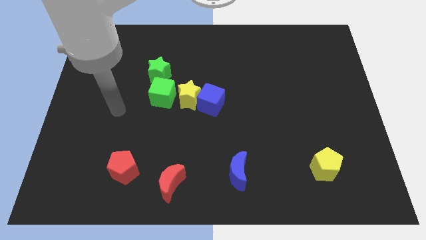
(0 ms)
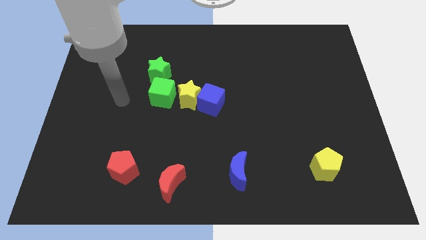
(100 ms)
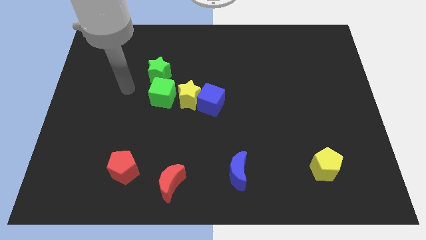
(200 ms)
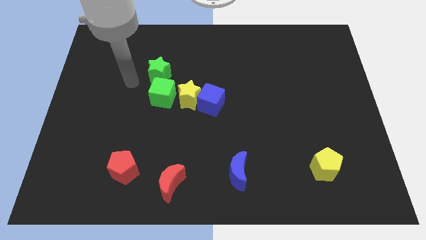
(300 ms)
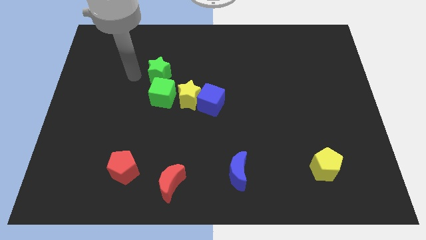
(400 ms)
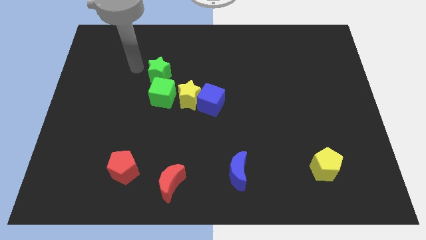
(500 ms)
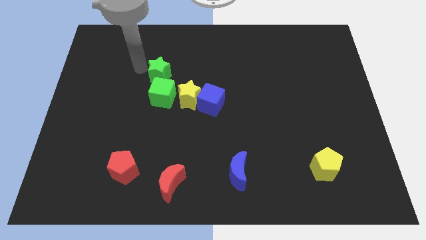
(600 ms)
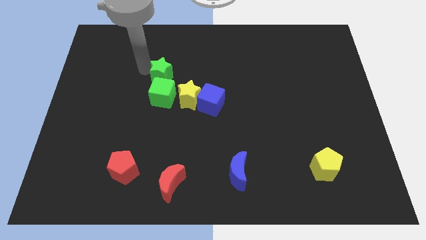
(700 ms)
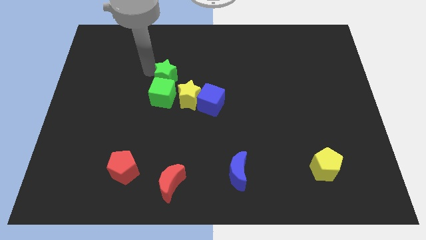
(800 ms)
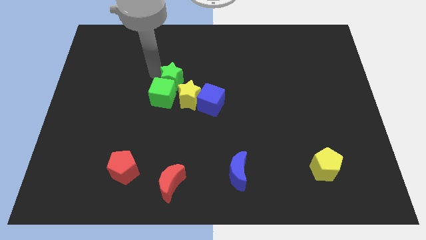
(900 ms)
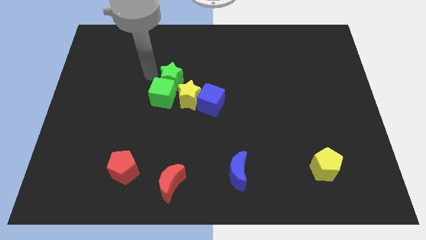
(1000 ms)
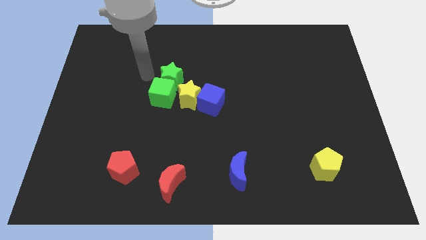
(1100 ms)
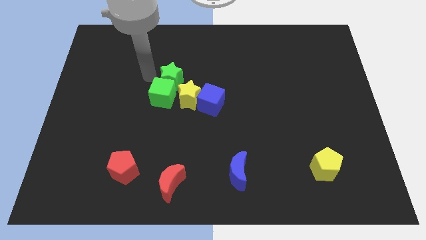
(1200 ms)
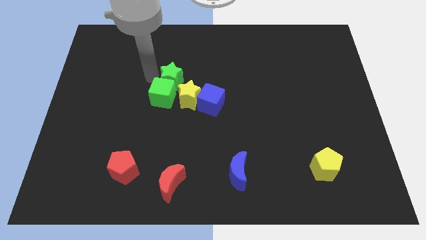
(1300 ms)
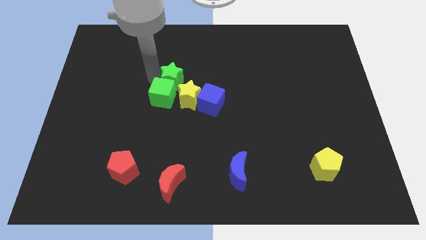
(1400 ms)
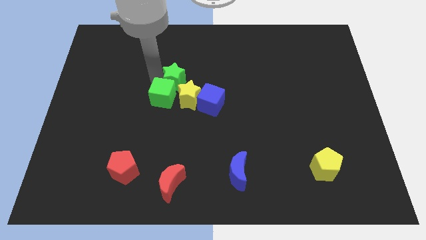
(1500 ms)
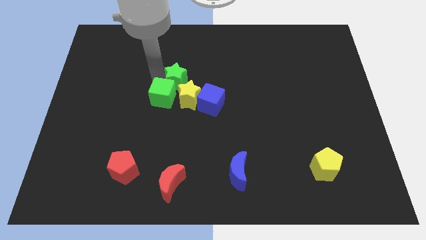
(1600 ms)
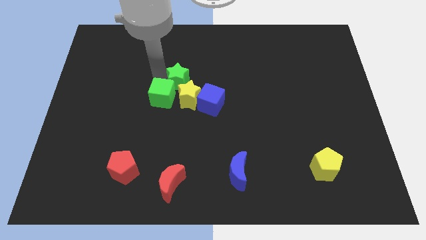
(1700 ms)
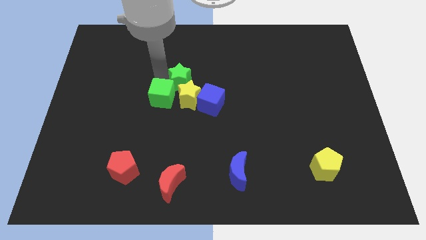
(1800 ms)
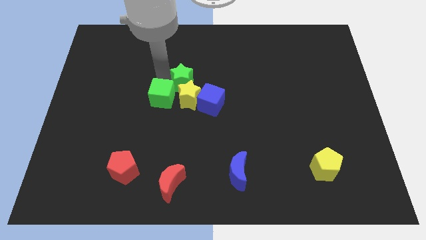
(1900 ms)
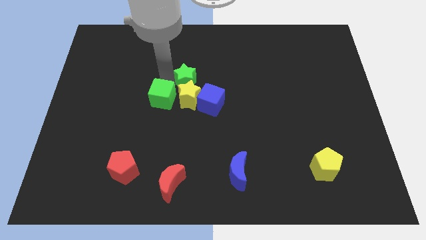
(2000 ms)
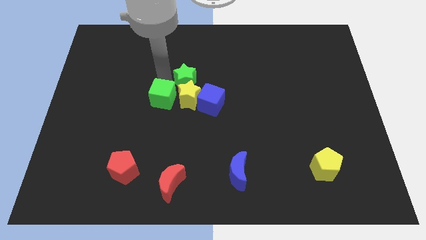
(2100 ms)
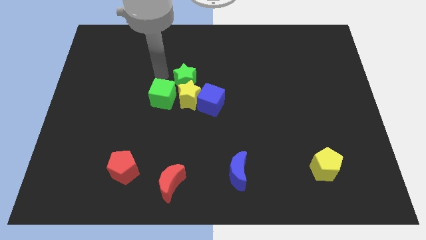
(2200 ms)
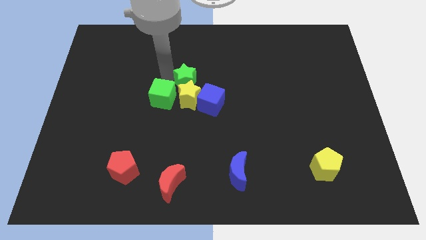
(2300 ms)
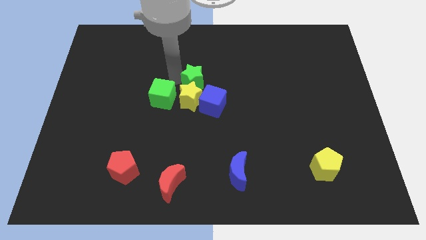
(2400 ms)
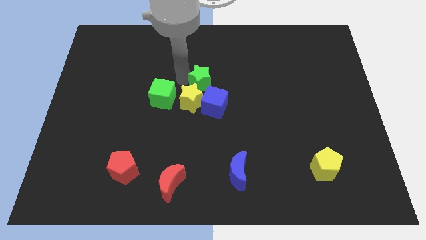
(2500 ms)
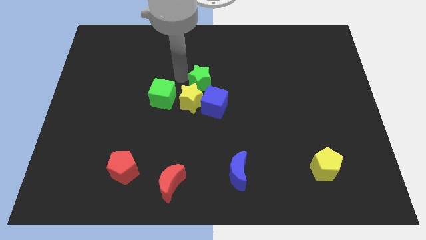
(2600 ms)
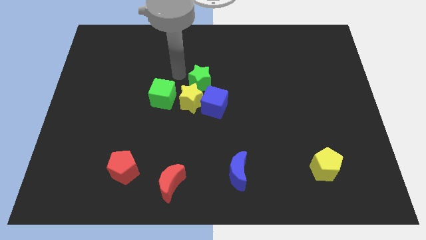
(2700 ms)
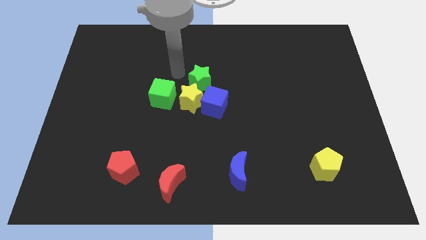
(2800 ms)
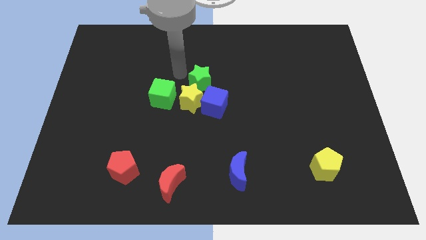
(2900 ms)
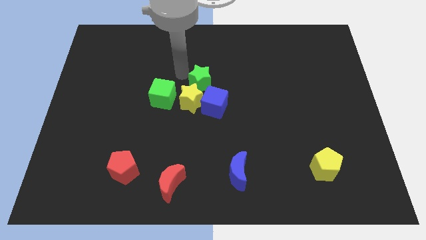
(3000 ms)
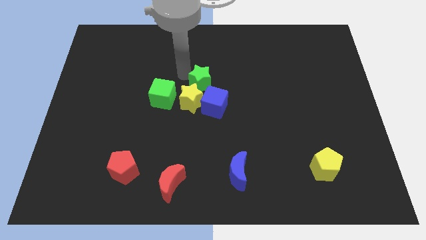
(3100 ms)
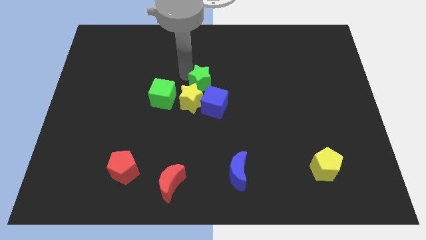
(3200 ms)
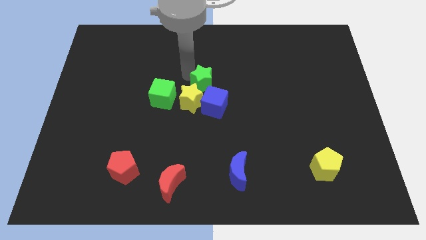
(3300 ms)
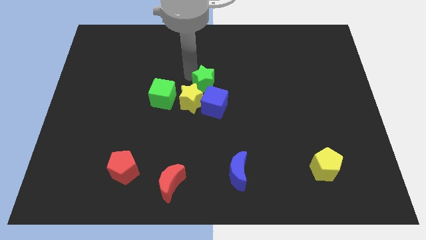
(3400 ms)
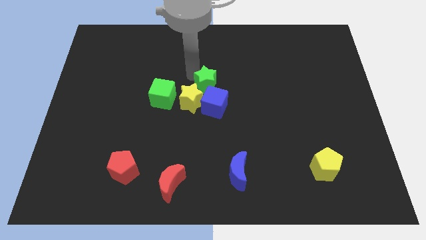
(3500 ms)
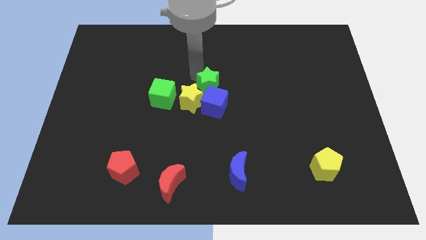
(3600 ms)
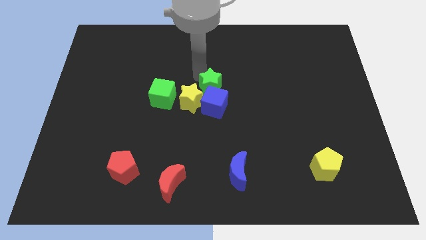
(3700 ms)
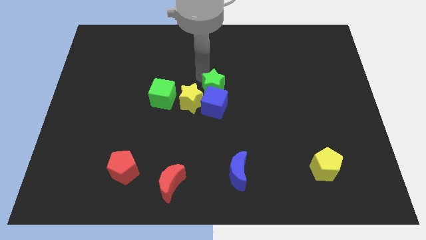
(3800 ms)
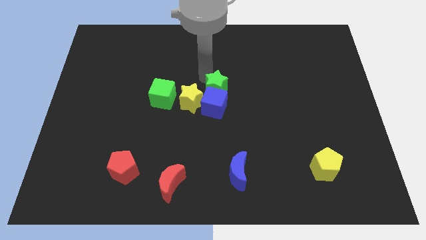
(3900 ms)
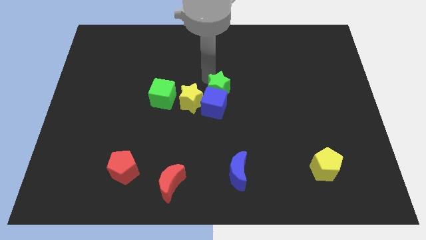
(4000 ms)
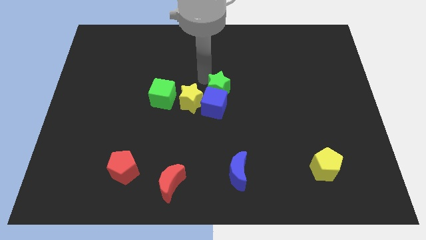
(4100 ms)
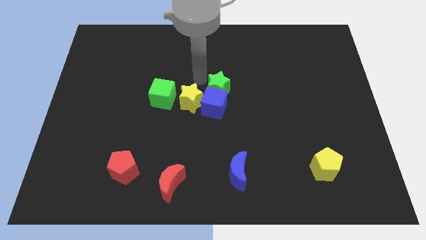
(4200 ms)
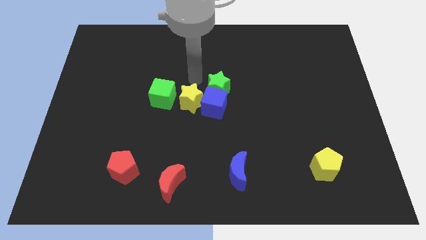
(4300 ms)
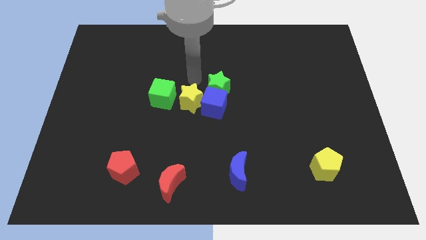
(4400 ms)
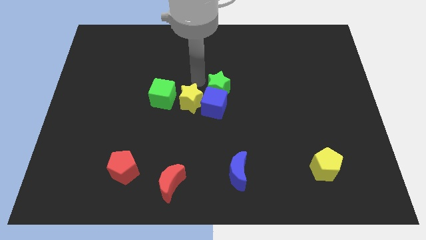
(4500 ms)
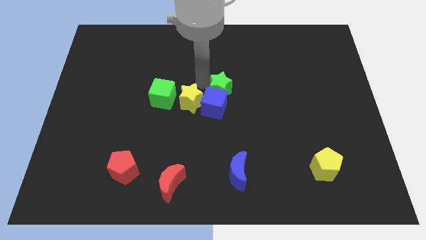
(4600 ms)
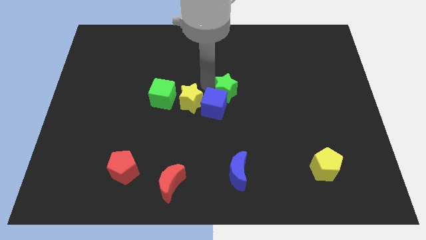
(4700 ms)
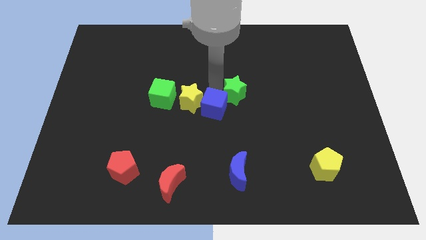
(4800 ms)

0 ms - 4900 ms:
move the green star to the right side of the blue cube

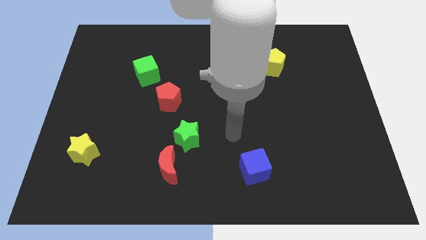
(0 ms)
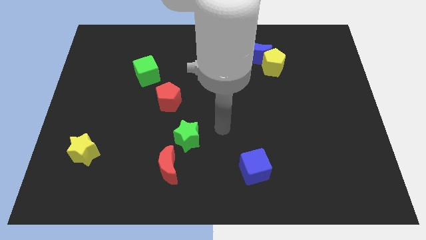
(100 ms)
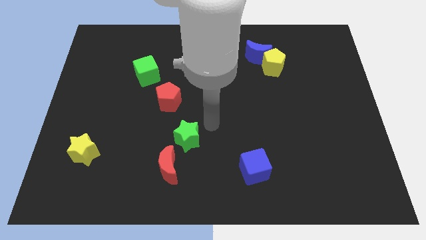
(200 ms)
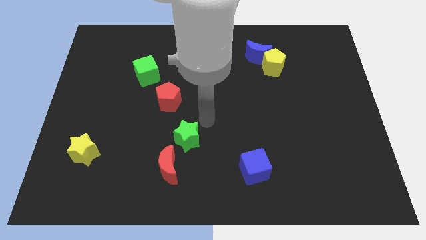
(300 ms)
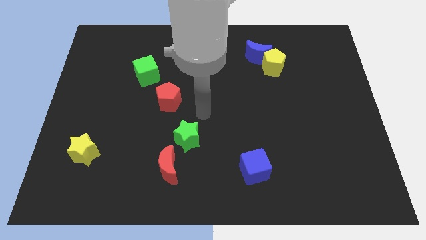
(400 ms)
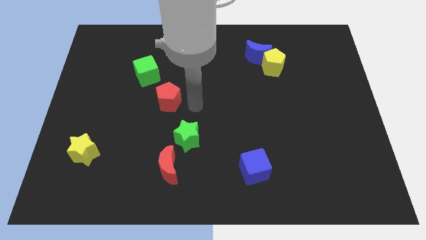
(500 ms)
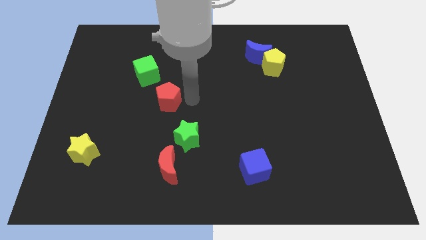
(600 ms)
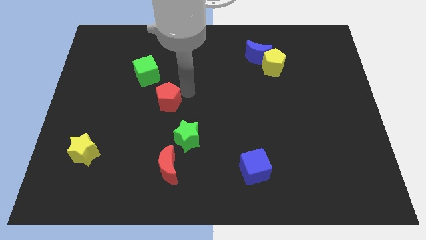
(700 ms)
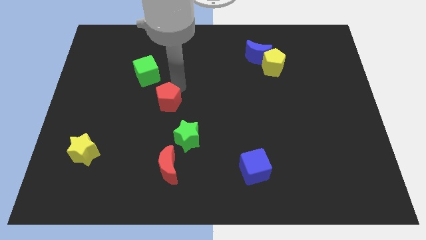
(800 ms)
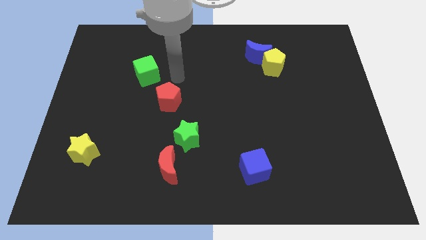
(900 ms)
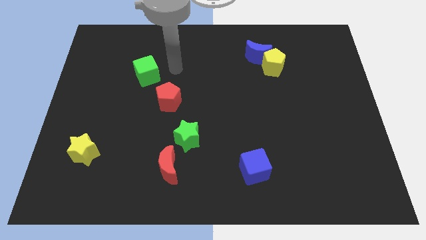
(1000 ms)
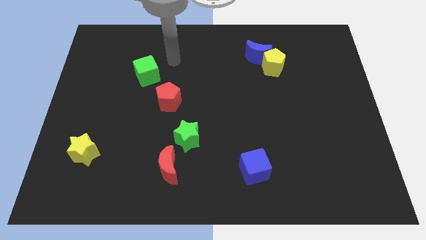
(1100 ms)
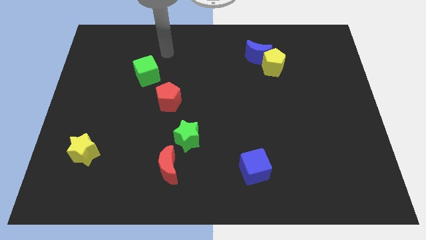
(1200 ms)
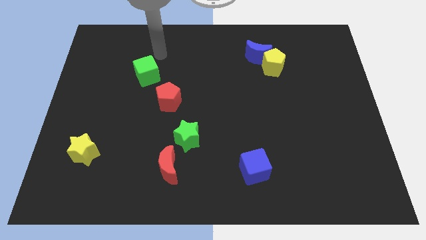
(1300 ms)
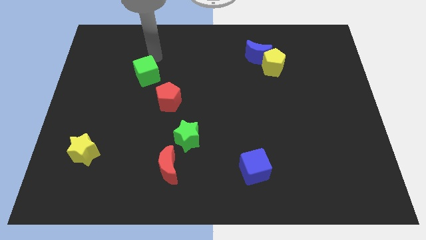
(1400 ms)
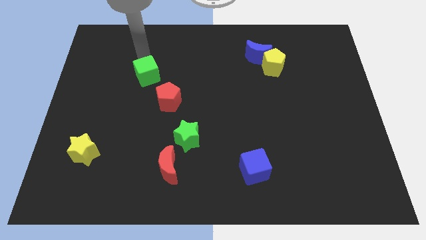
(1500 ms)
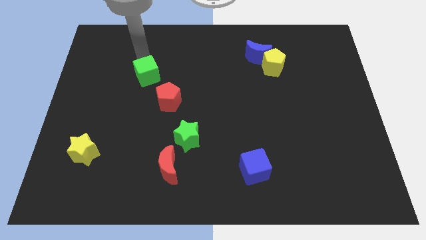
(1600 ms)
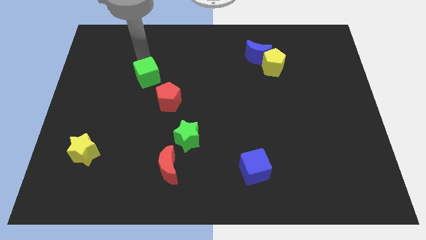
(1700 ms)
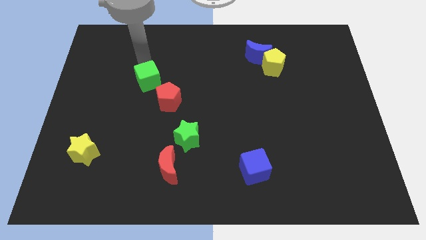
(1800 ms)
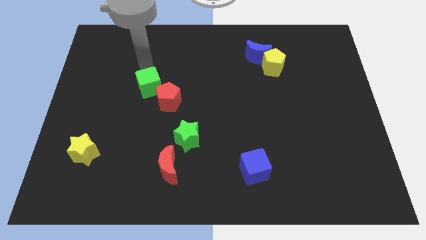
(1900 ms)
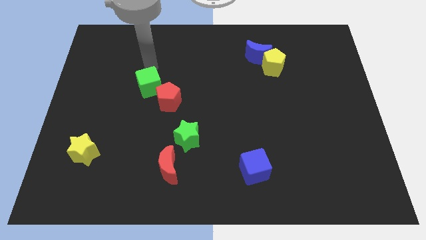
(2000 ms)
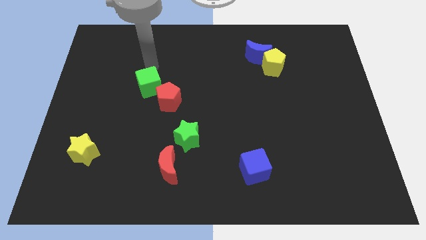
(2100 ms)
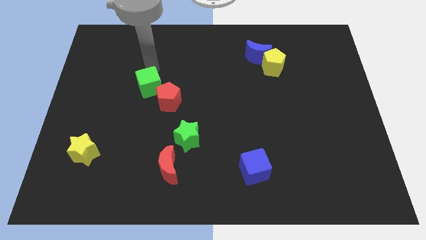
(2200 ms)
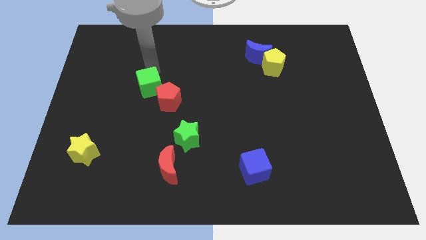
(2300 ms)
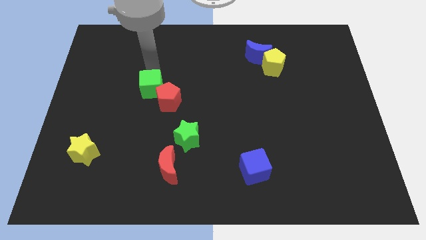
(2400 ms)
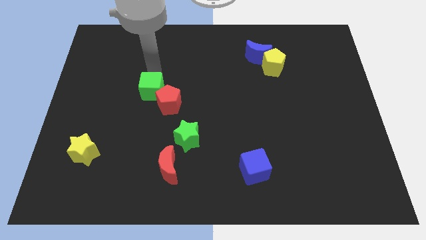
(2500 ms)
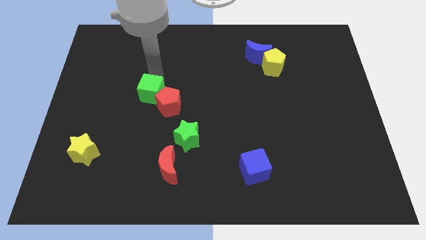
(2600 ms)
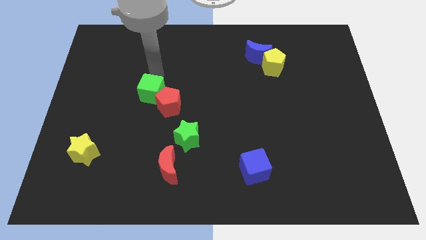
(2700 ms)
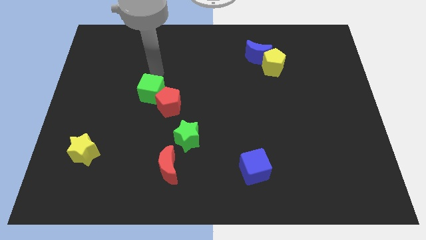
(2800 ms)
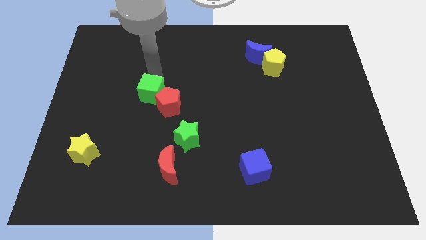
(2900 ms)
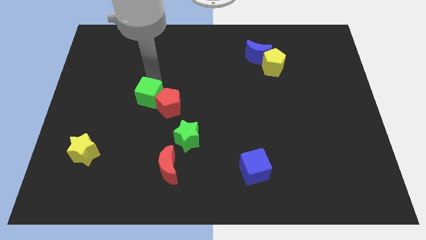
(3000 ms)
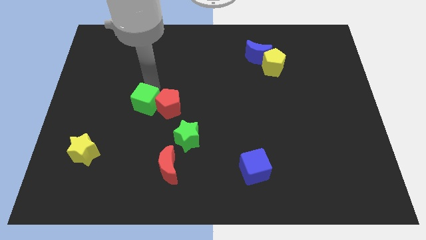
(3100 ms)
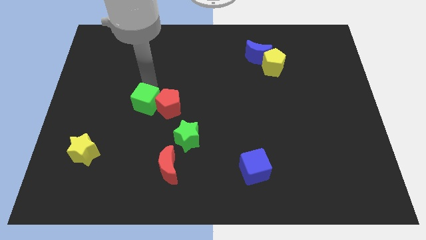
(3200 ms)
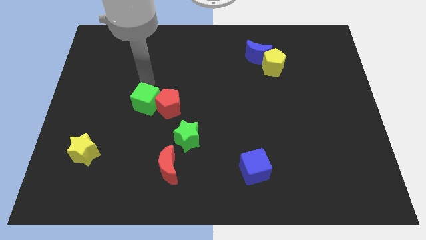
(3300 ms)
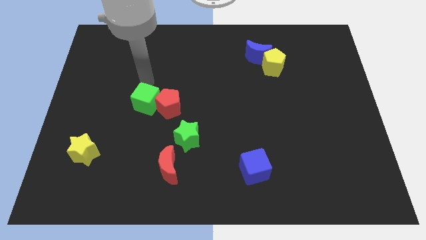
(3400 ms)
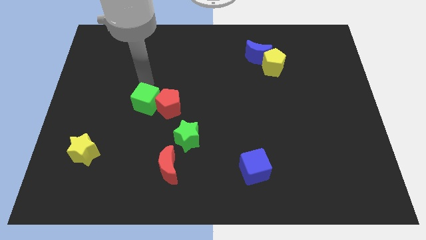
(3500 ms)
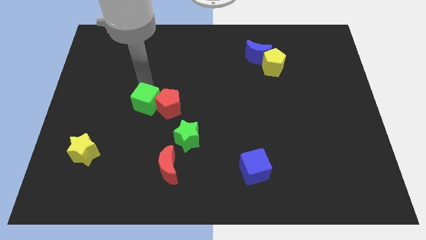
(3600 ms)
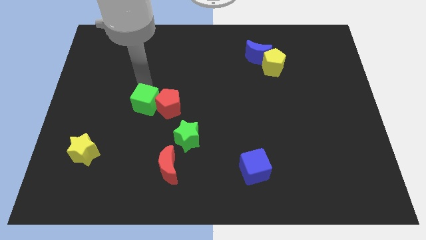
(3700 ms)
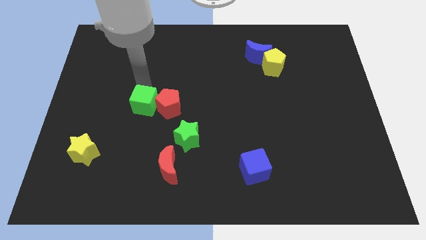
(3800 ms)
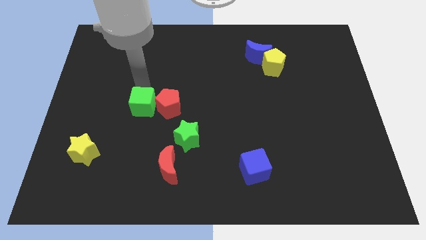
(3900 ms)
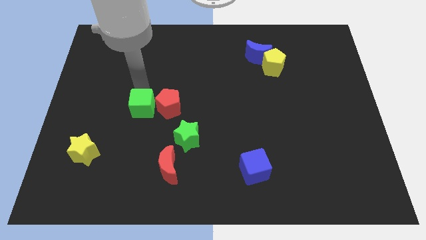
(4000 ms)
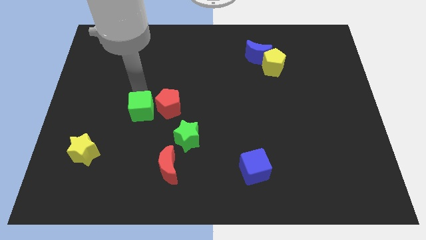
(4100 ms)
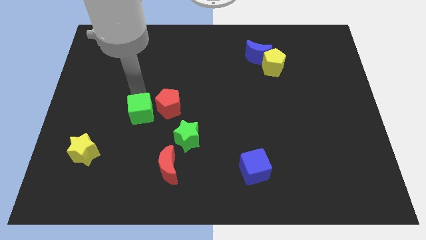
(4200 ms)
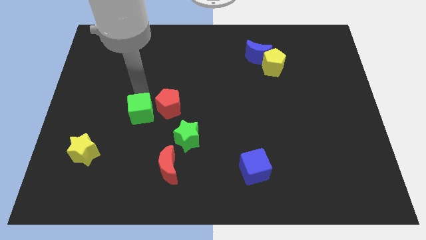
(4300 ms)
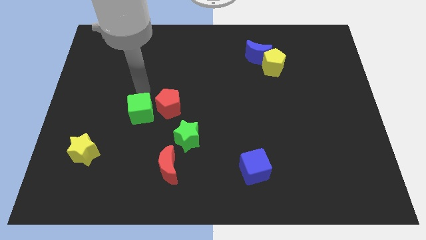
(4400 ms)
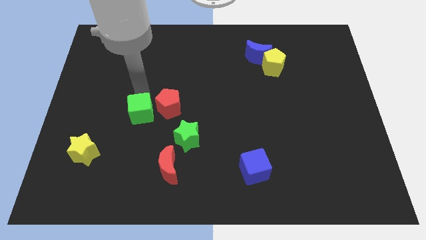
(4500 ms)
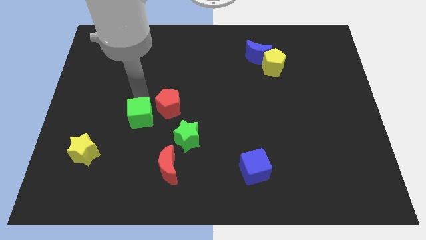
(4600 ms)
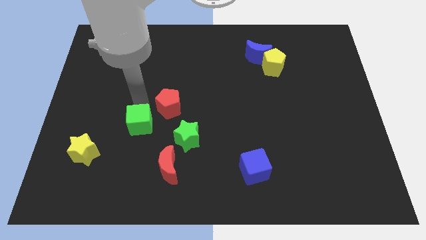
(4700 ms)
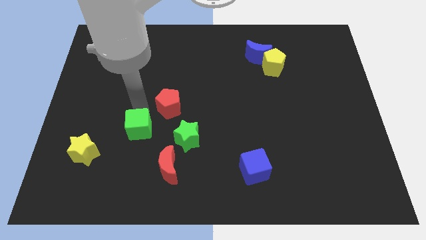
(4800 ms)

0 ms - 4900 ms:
put the green cube diagonally up and to the left of the red moon
